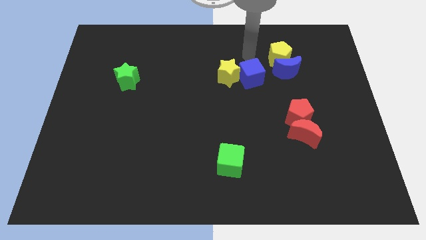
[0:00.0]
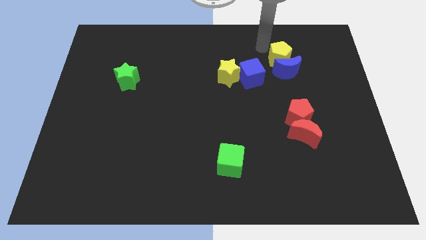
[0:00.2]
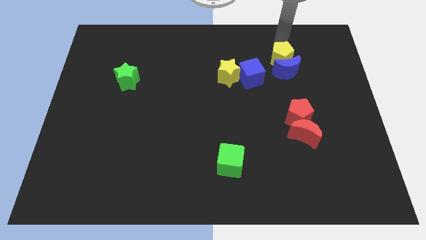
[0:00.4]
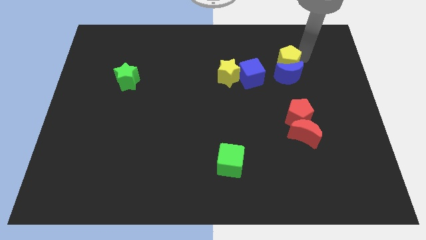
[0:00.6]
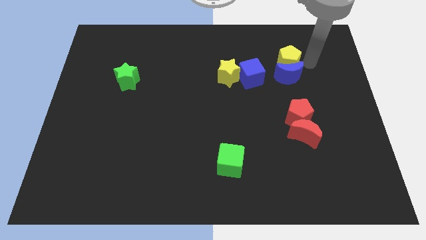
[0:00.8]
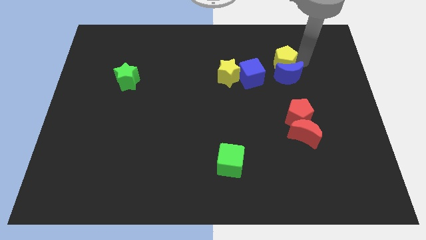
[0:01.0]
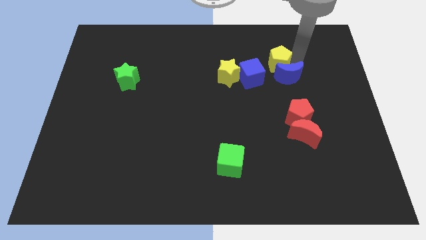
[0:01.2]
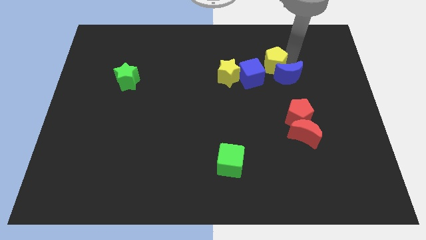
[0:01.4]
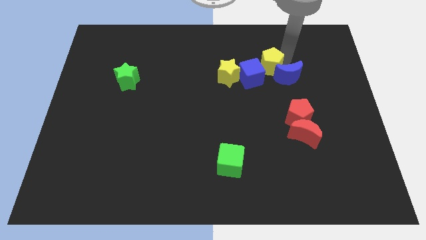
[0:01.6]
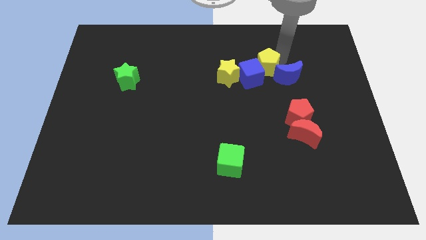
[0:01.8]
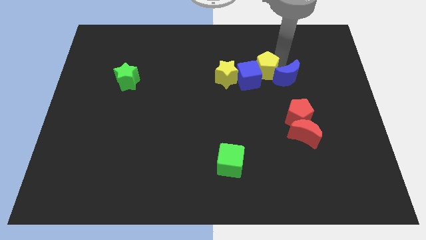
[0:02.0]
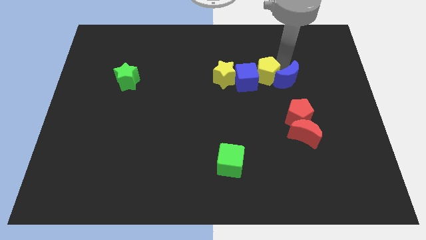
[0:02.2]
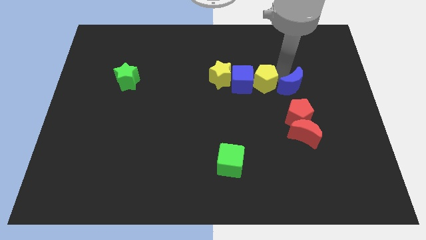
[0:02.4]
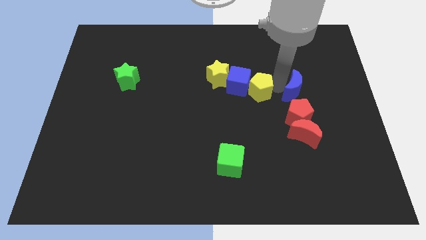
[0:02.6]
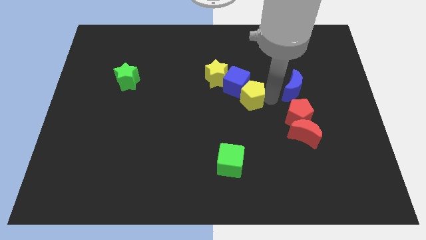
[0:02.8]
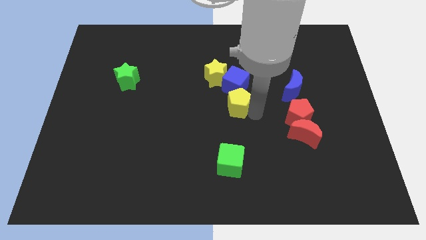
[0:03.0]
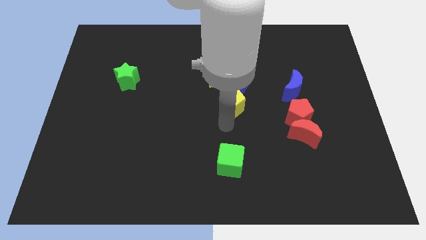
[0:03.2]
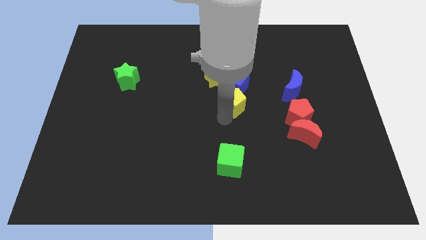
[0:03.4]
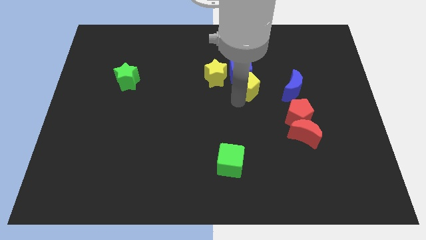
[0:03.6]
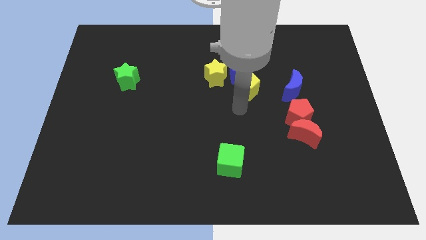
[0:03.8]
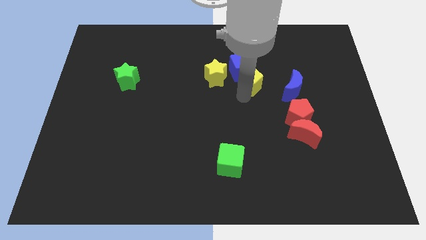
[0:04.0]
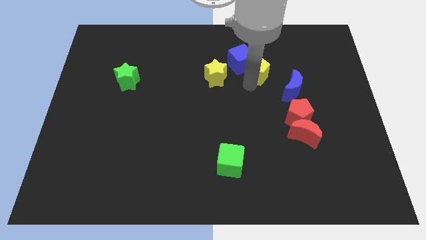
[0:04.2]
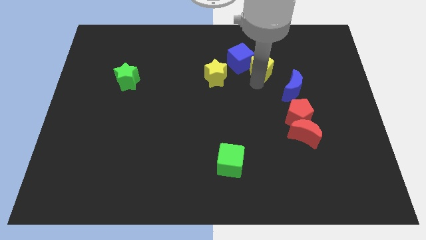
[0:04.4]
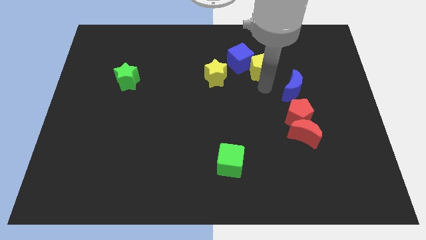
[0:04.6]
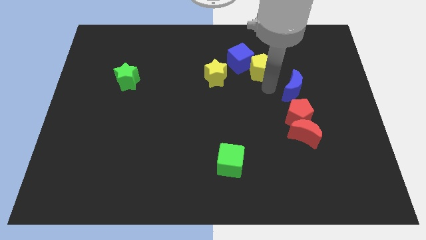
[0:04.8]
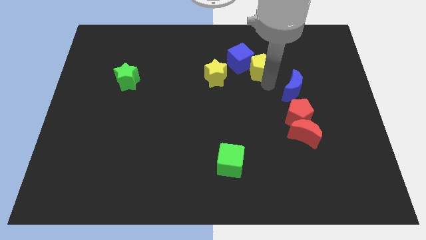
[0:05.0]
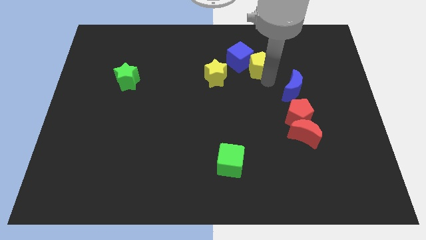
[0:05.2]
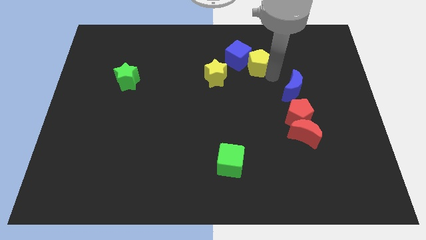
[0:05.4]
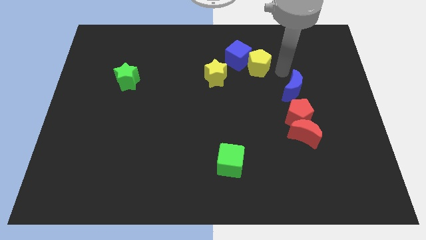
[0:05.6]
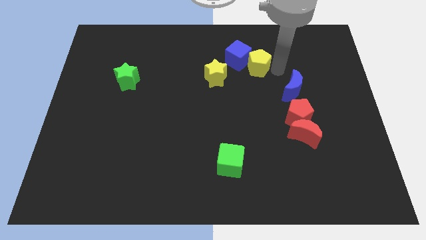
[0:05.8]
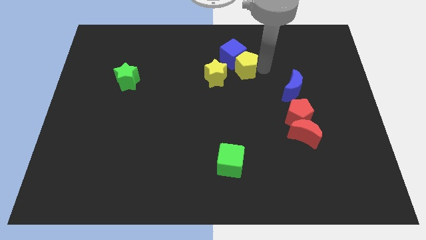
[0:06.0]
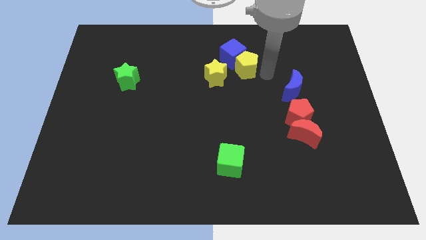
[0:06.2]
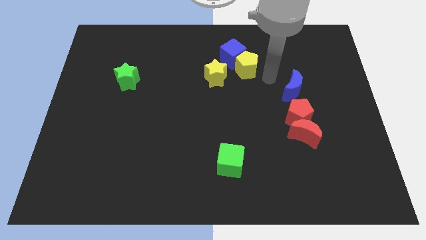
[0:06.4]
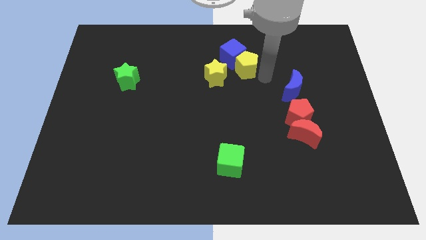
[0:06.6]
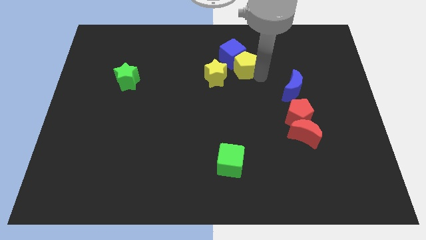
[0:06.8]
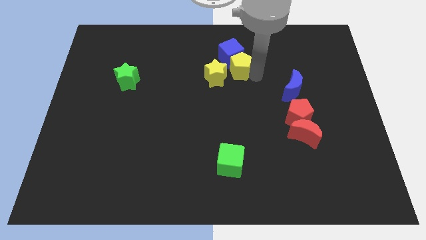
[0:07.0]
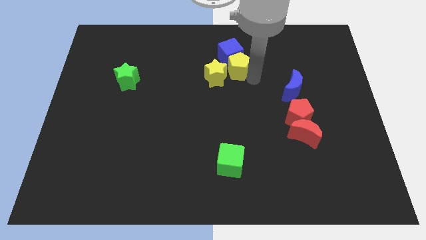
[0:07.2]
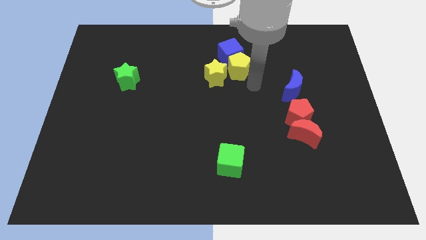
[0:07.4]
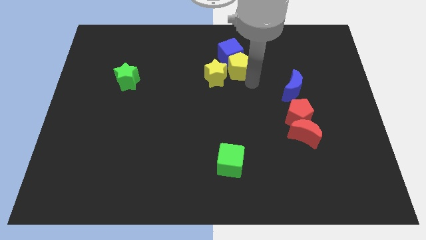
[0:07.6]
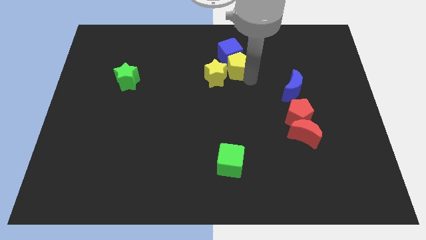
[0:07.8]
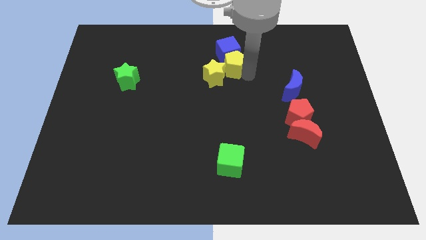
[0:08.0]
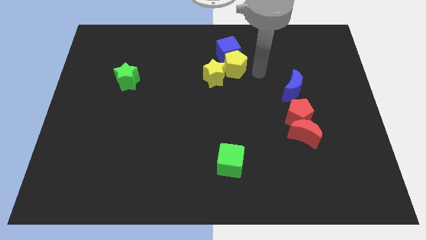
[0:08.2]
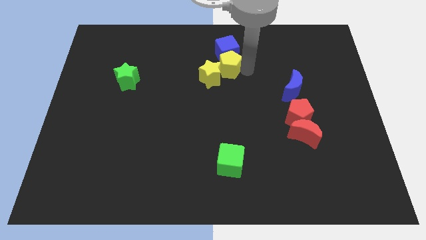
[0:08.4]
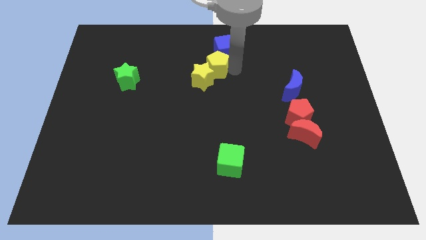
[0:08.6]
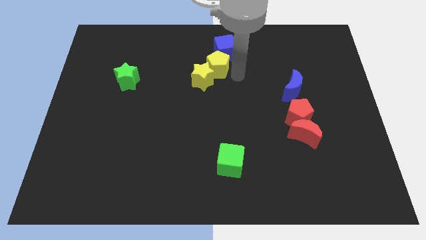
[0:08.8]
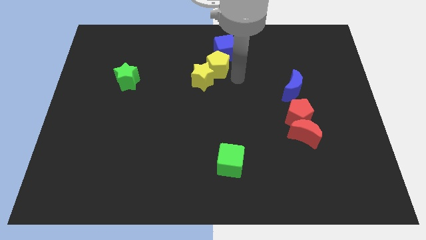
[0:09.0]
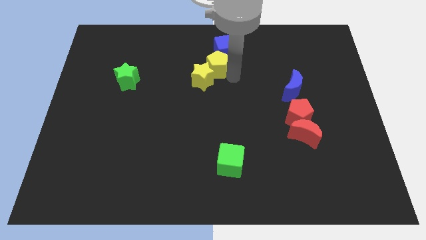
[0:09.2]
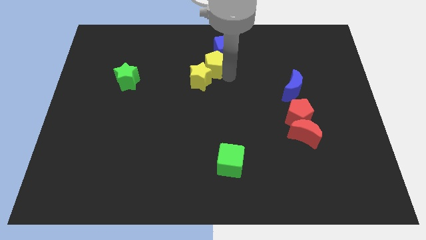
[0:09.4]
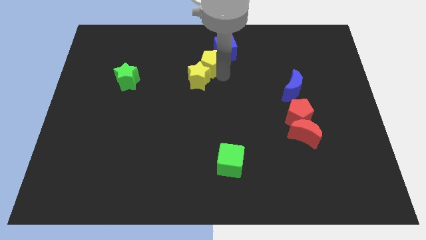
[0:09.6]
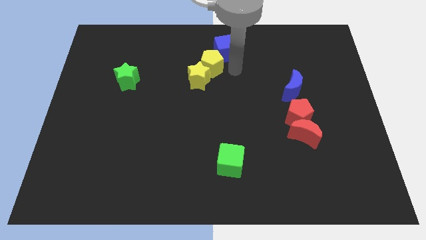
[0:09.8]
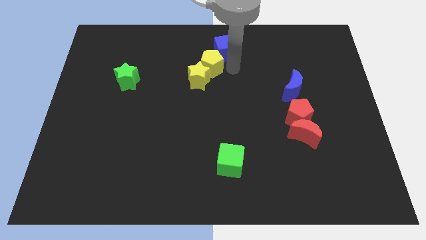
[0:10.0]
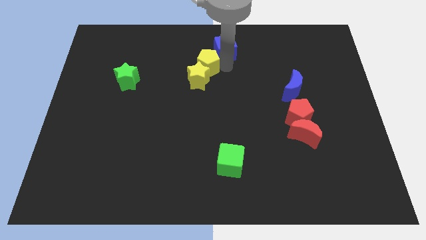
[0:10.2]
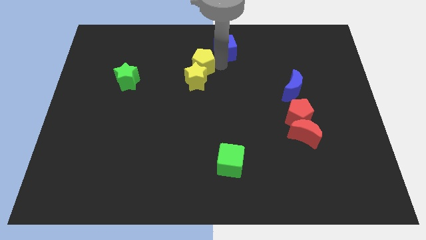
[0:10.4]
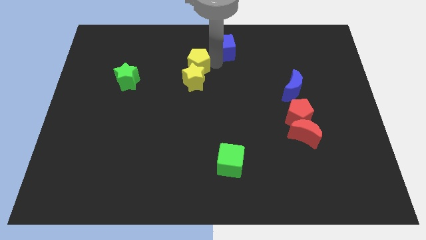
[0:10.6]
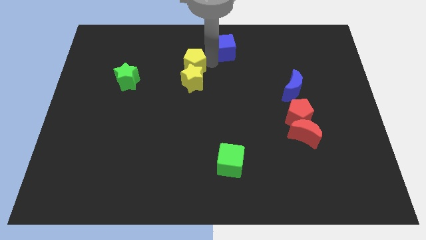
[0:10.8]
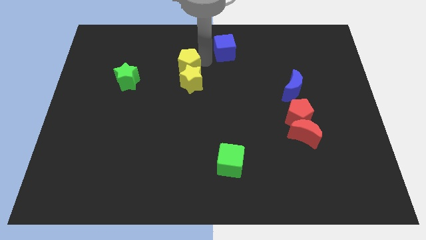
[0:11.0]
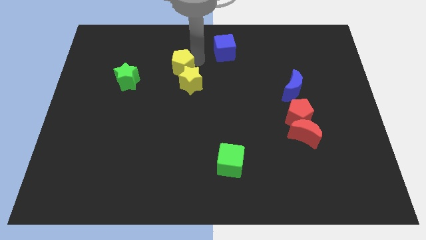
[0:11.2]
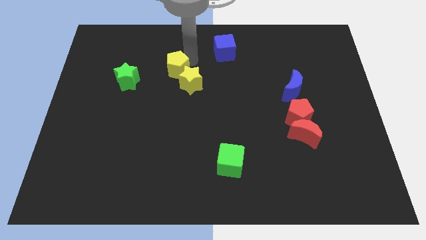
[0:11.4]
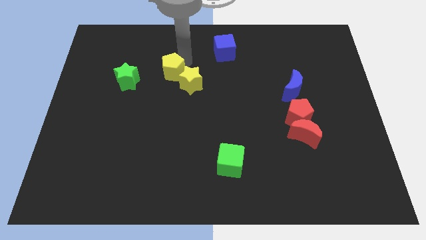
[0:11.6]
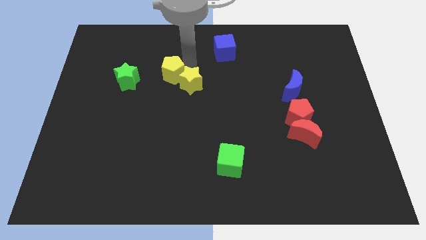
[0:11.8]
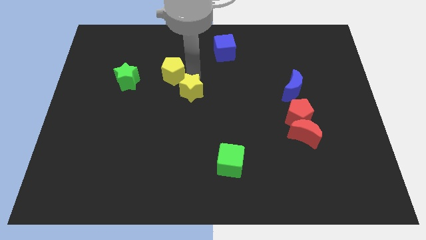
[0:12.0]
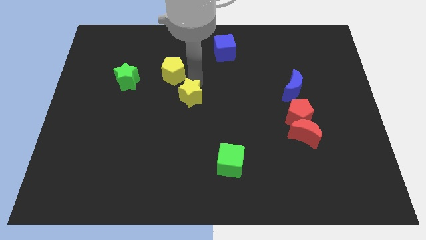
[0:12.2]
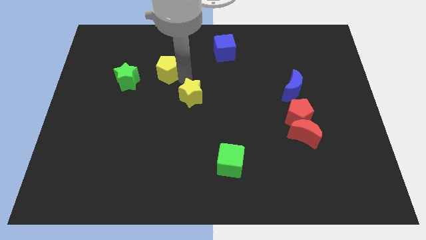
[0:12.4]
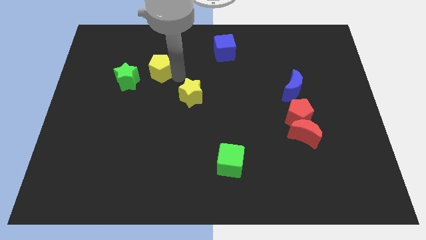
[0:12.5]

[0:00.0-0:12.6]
push the yellow pentagon diagonally up and to the right of the green star
